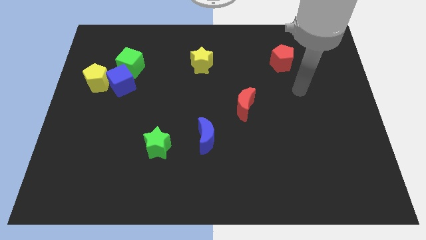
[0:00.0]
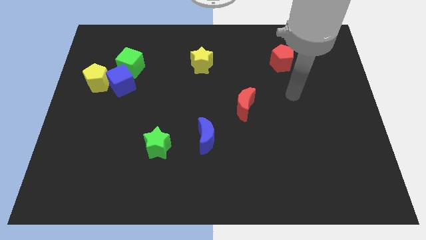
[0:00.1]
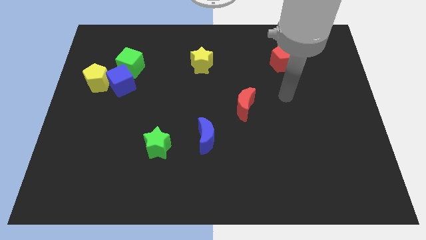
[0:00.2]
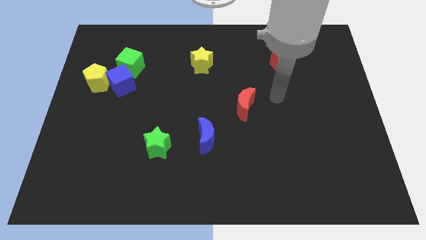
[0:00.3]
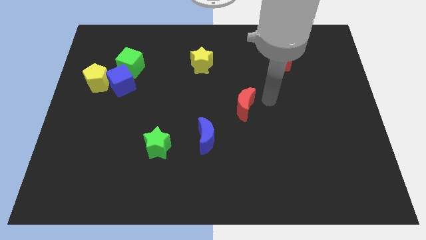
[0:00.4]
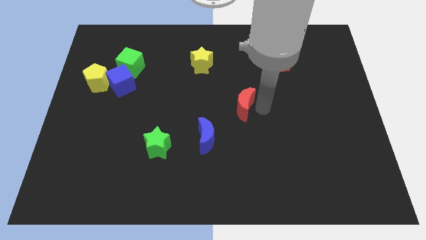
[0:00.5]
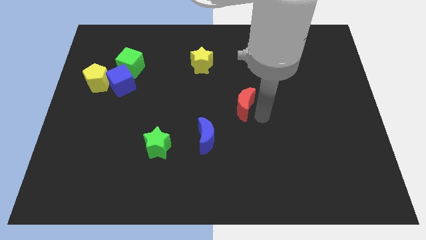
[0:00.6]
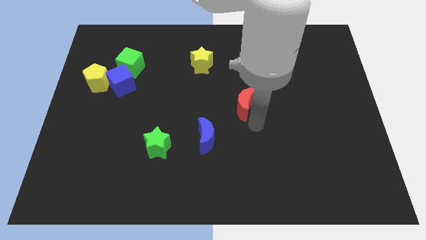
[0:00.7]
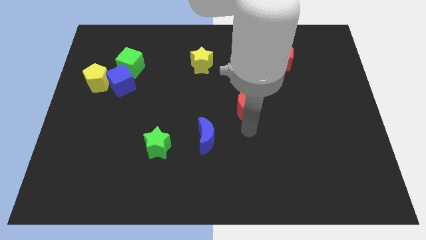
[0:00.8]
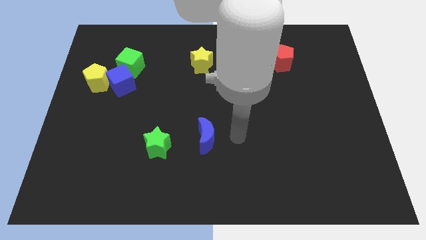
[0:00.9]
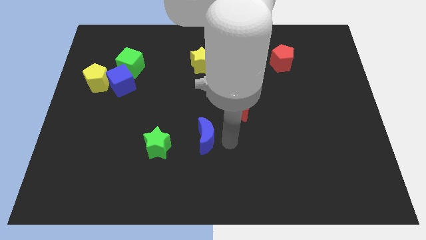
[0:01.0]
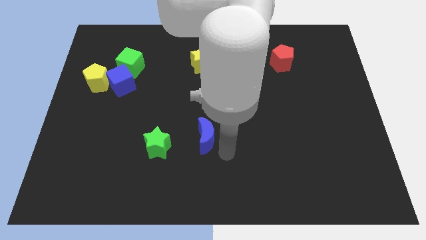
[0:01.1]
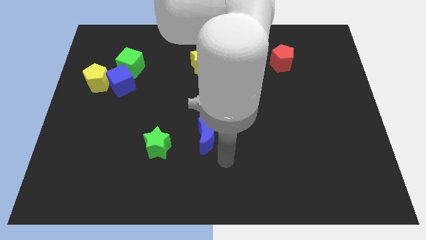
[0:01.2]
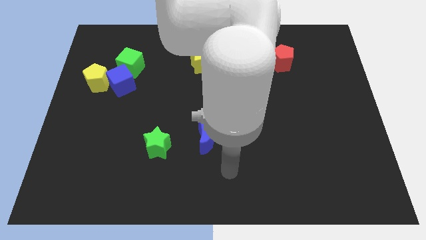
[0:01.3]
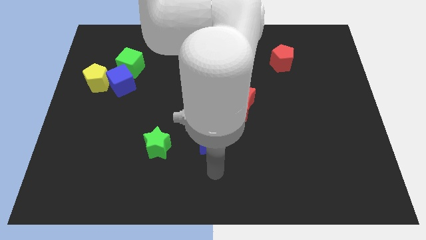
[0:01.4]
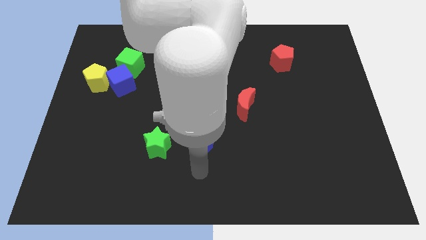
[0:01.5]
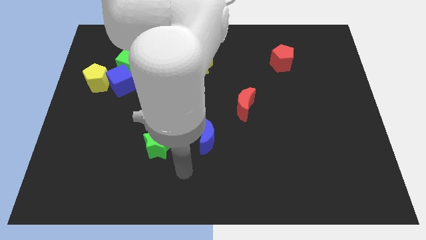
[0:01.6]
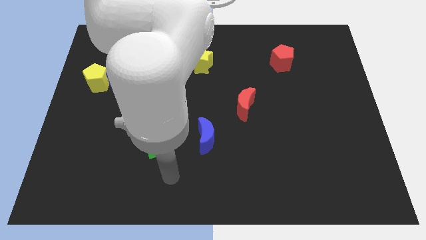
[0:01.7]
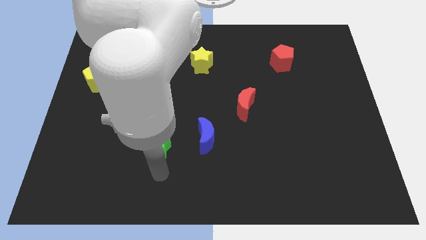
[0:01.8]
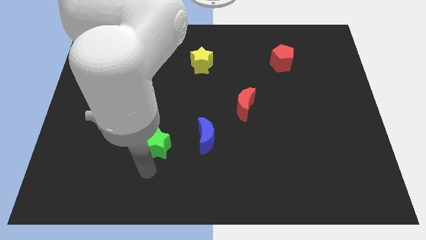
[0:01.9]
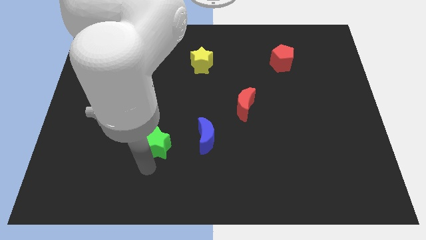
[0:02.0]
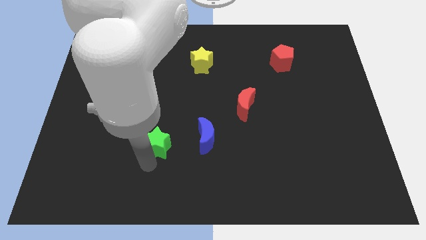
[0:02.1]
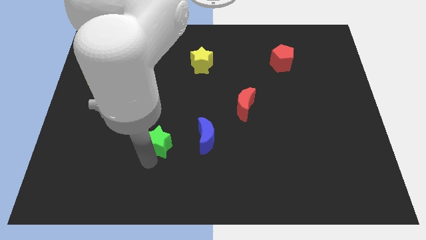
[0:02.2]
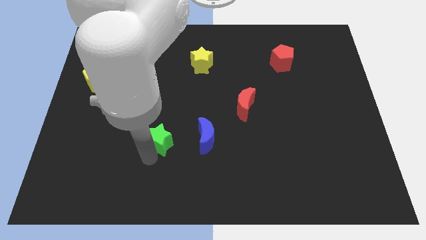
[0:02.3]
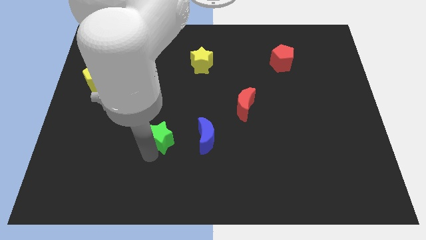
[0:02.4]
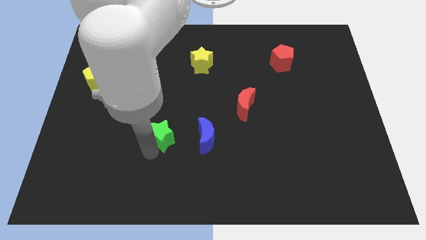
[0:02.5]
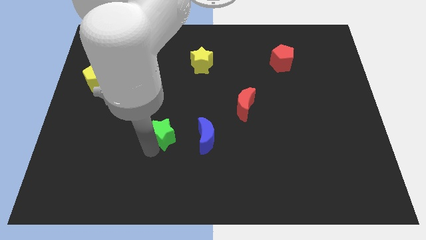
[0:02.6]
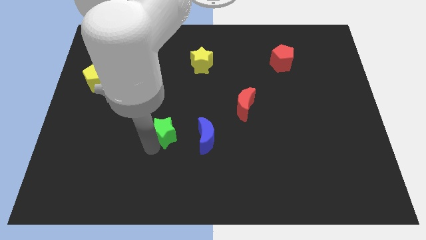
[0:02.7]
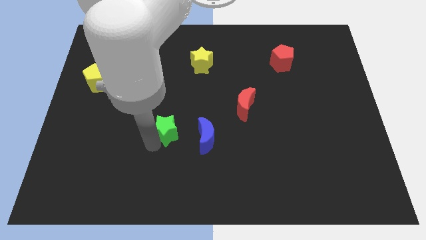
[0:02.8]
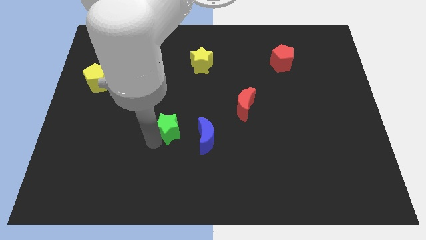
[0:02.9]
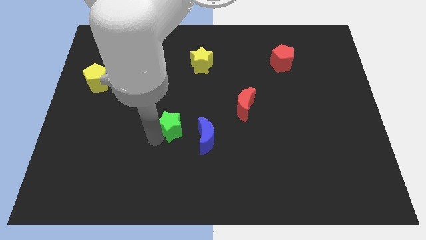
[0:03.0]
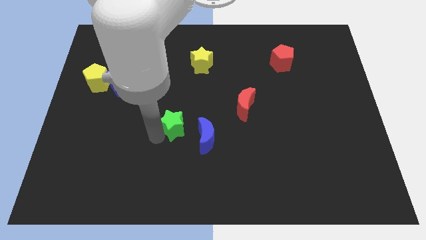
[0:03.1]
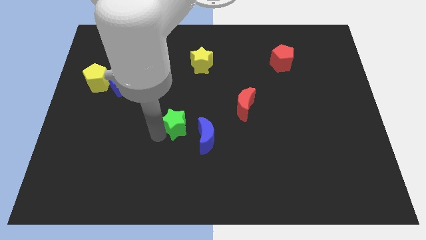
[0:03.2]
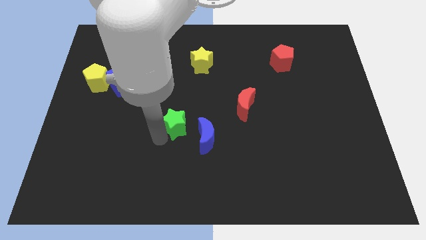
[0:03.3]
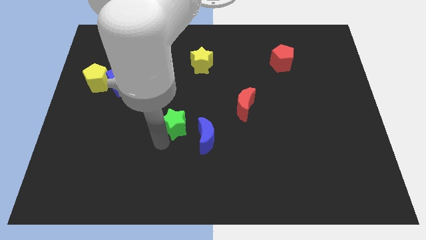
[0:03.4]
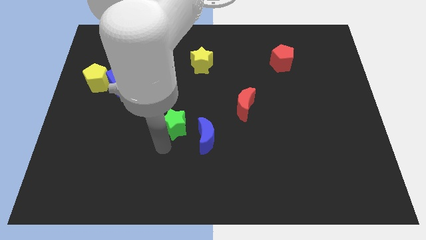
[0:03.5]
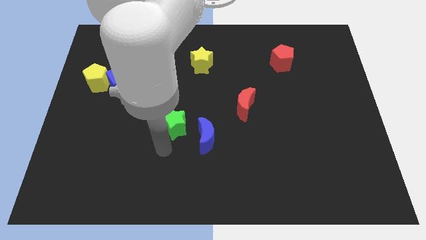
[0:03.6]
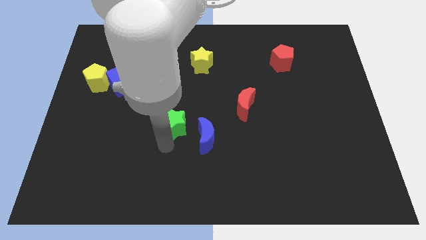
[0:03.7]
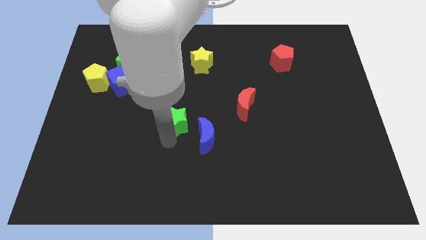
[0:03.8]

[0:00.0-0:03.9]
slightly push the green star diagonally upwards and right

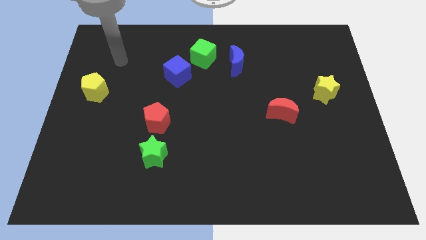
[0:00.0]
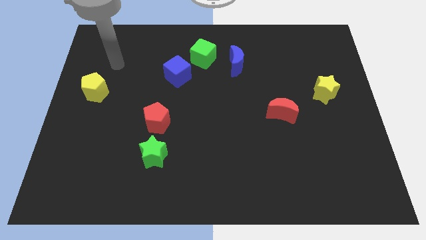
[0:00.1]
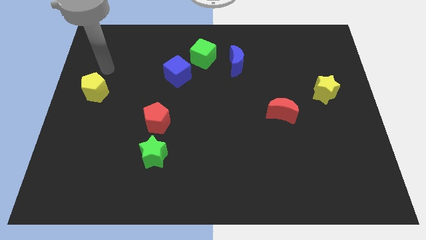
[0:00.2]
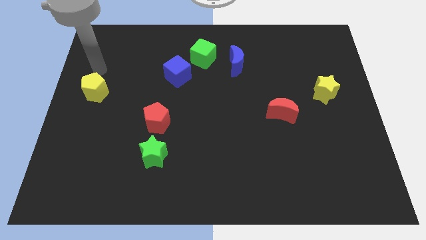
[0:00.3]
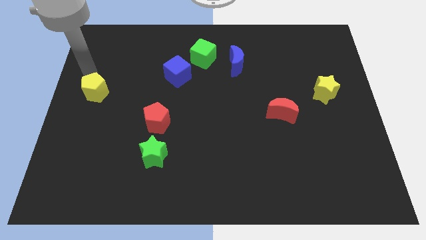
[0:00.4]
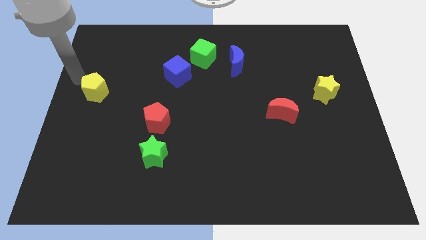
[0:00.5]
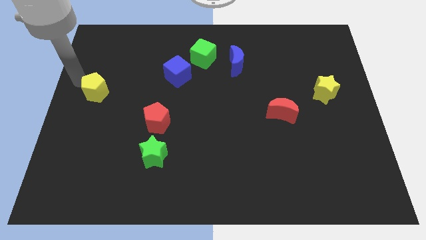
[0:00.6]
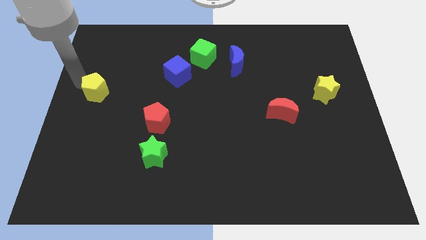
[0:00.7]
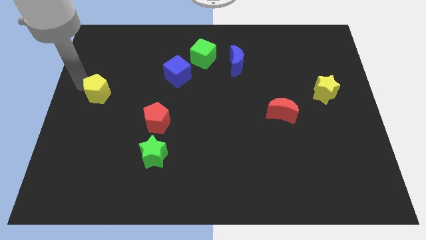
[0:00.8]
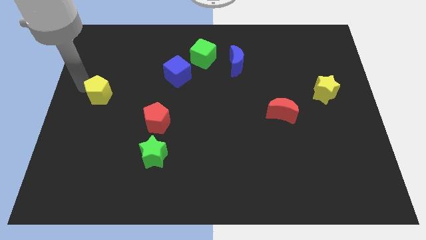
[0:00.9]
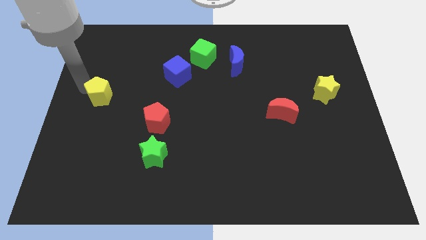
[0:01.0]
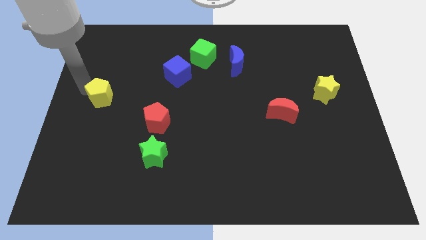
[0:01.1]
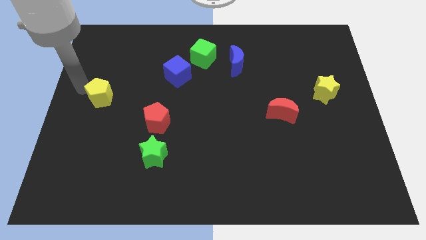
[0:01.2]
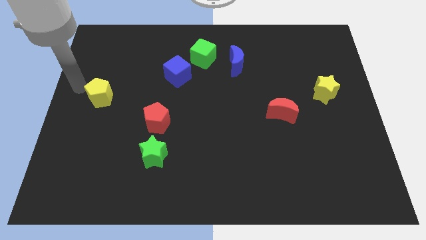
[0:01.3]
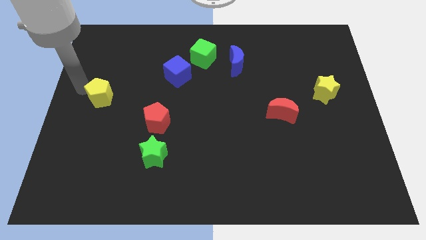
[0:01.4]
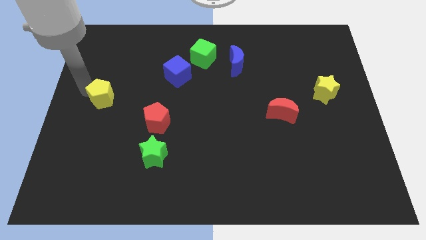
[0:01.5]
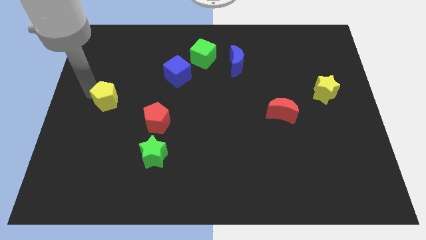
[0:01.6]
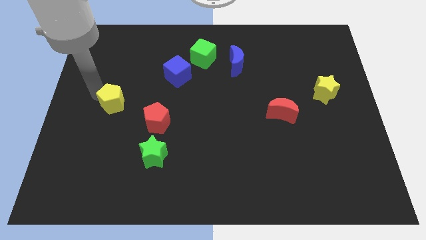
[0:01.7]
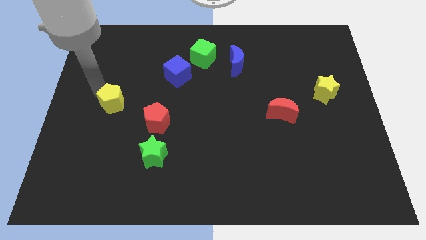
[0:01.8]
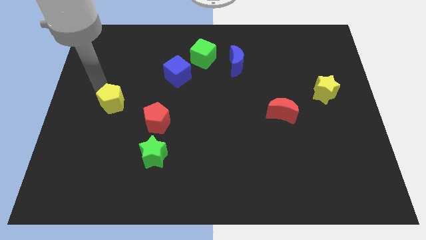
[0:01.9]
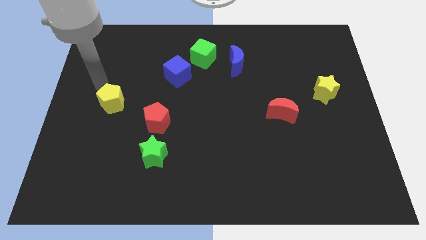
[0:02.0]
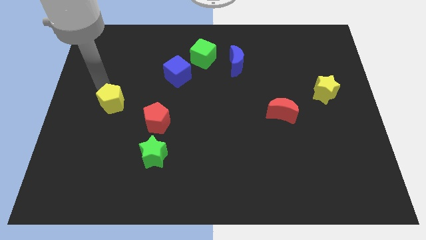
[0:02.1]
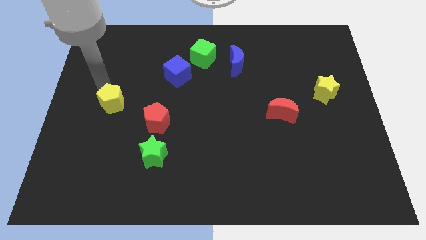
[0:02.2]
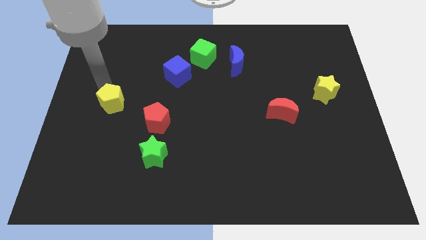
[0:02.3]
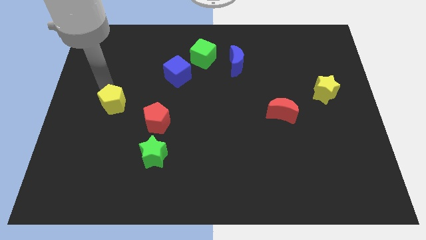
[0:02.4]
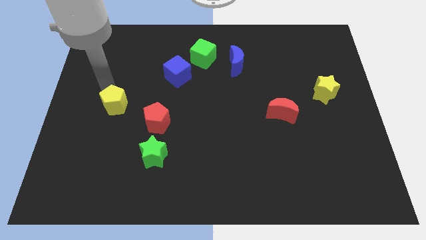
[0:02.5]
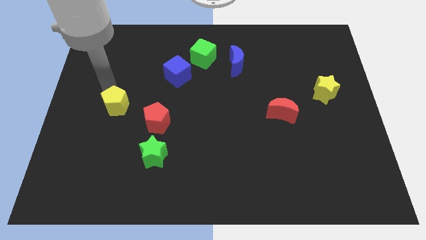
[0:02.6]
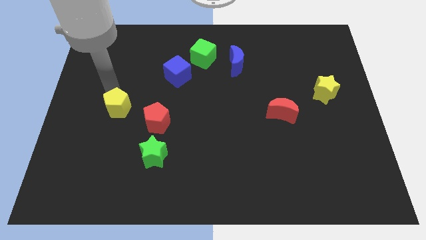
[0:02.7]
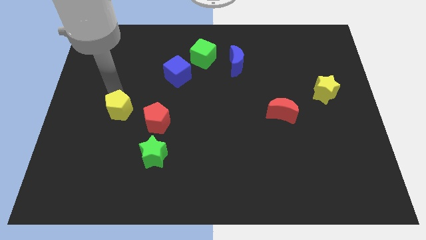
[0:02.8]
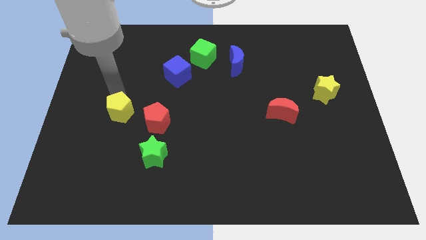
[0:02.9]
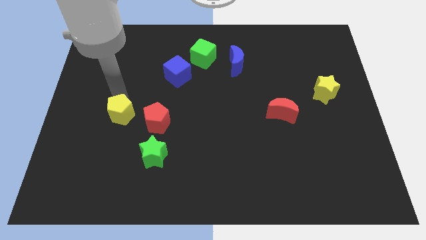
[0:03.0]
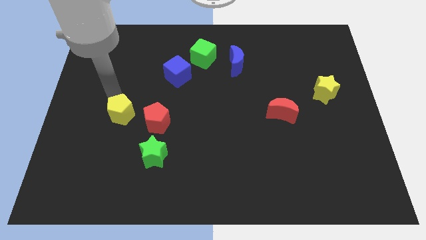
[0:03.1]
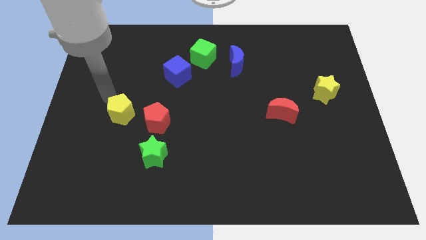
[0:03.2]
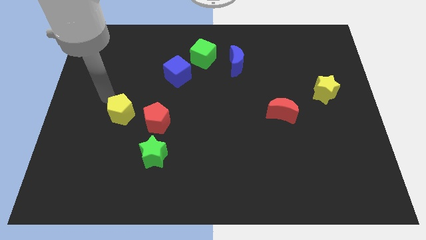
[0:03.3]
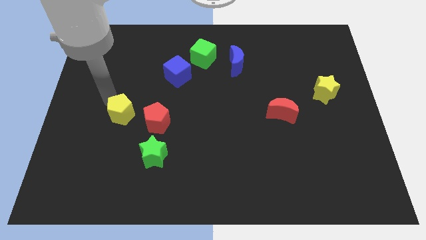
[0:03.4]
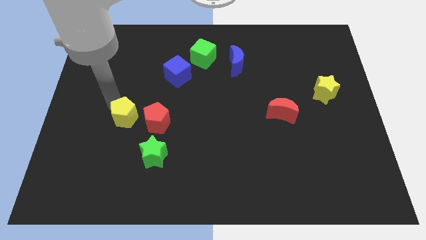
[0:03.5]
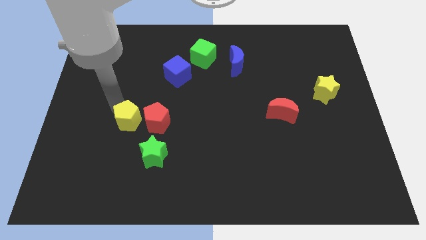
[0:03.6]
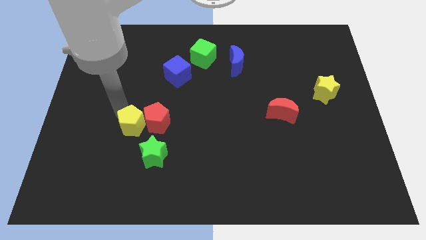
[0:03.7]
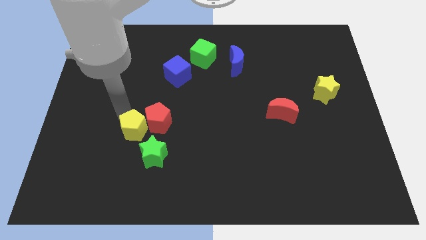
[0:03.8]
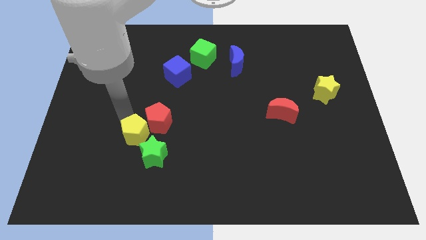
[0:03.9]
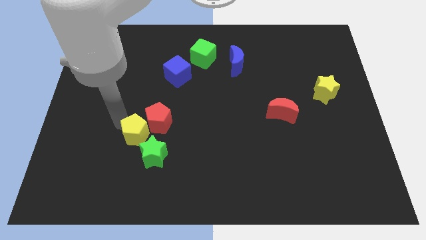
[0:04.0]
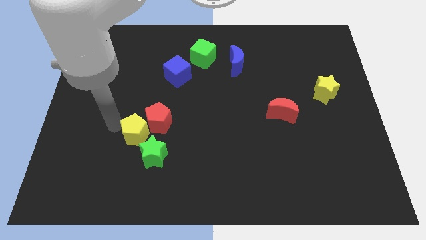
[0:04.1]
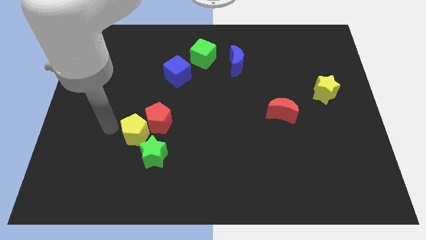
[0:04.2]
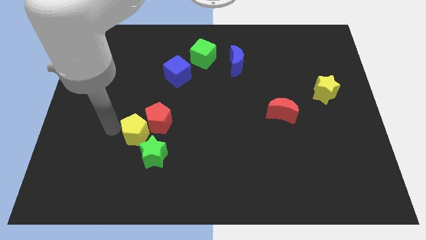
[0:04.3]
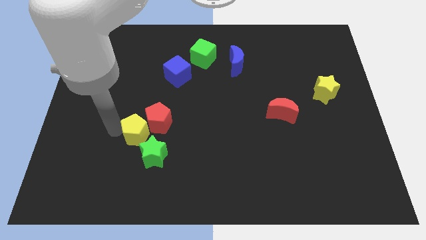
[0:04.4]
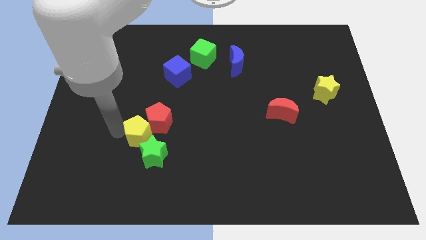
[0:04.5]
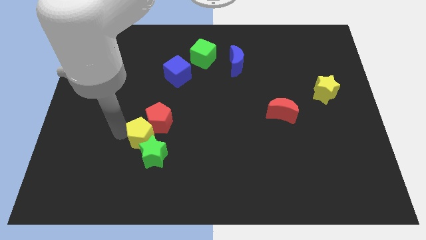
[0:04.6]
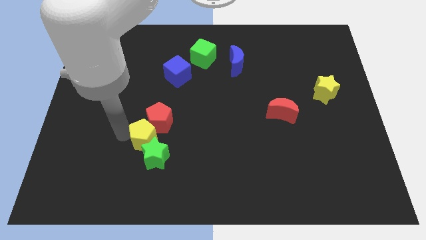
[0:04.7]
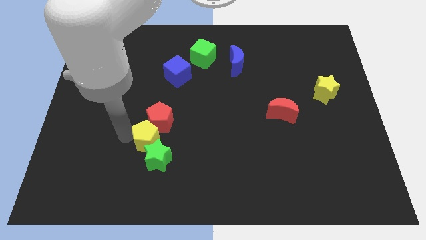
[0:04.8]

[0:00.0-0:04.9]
move the yellow pentagon diagonally downwards and right
